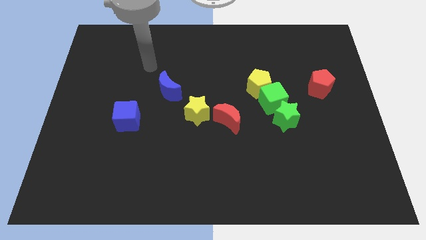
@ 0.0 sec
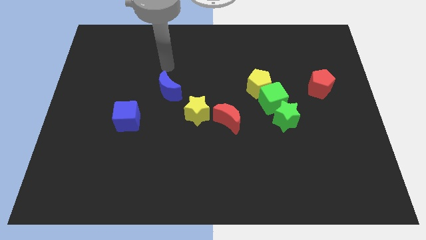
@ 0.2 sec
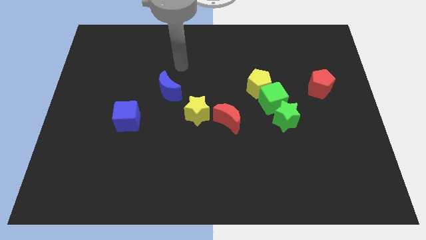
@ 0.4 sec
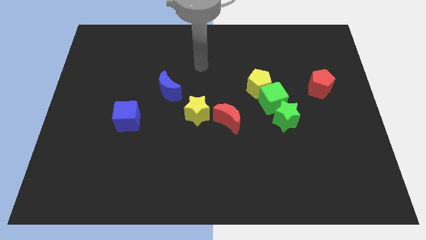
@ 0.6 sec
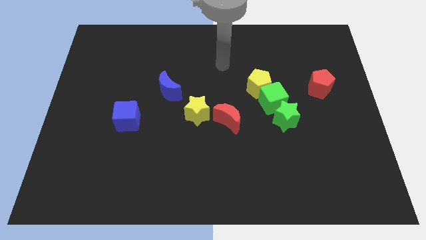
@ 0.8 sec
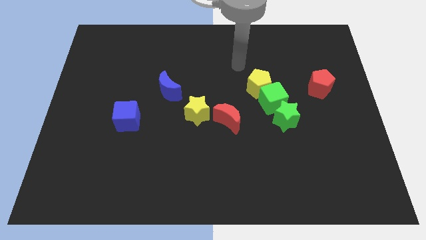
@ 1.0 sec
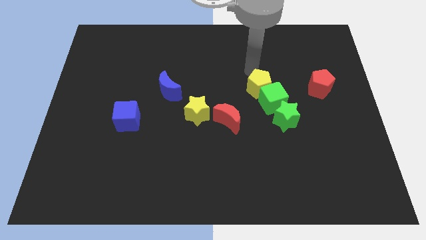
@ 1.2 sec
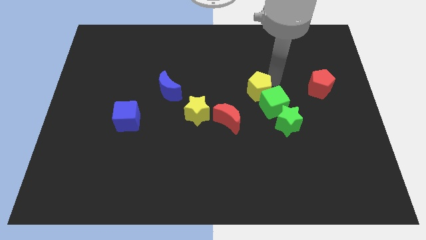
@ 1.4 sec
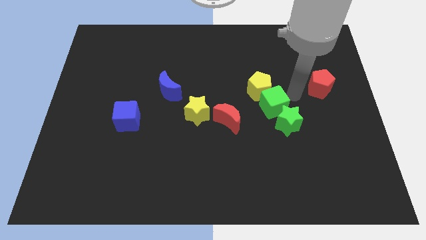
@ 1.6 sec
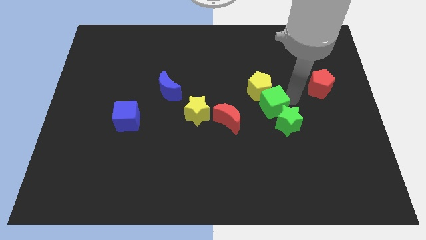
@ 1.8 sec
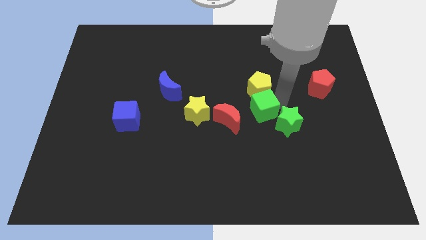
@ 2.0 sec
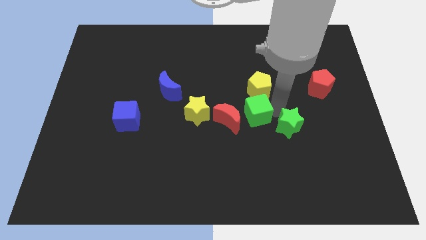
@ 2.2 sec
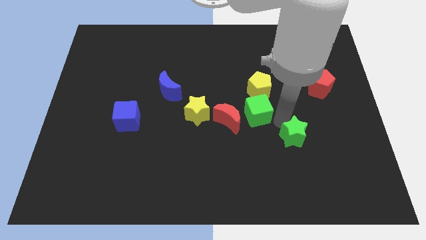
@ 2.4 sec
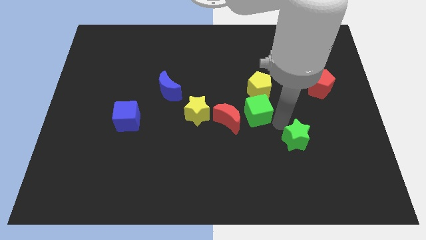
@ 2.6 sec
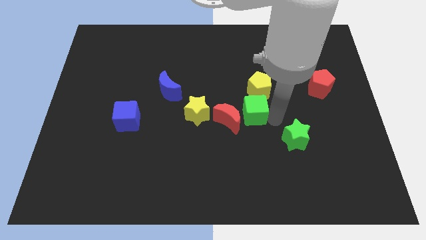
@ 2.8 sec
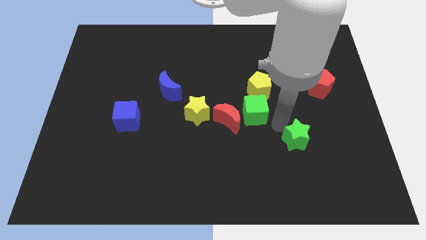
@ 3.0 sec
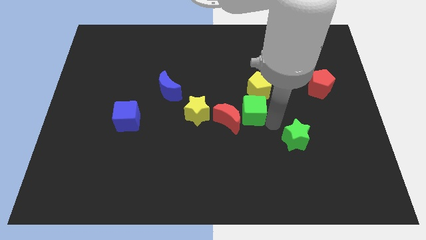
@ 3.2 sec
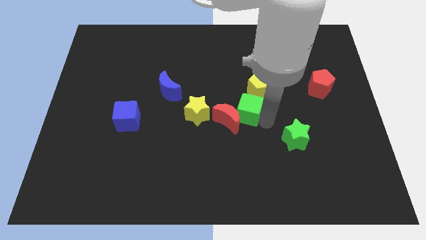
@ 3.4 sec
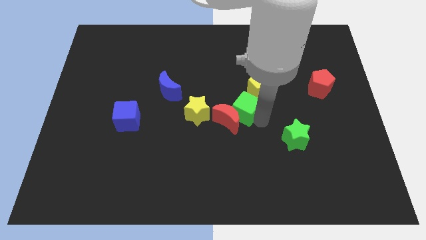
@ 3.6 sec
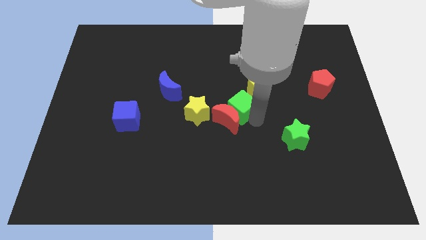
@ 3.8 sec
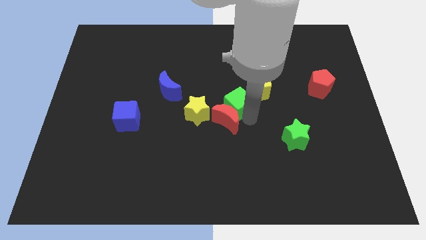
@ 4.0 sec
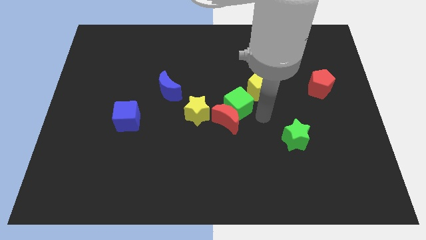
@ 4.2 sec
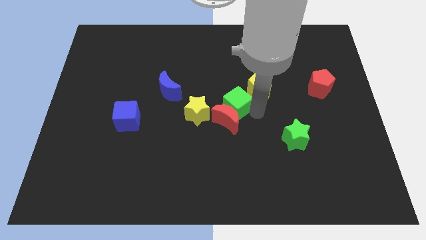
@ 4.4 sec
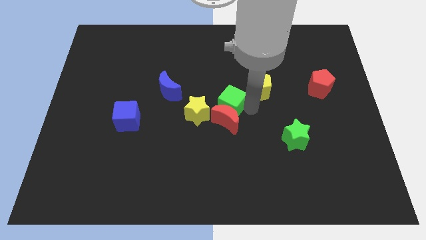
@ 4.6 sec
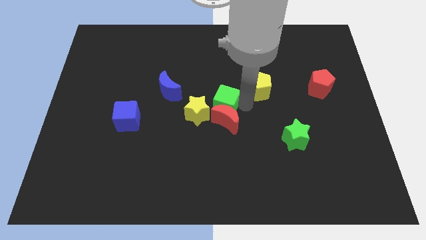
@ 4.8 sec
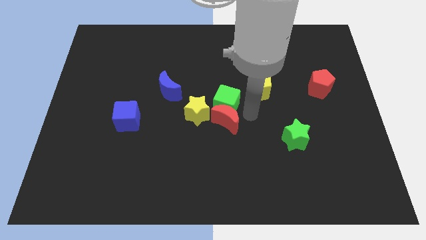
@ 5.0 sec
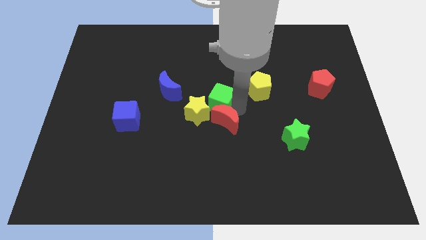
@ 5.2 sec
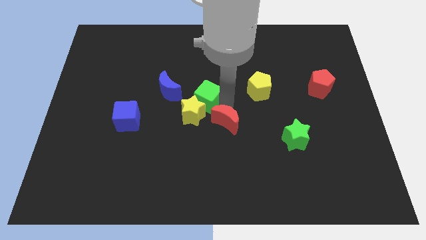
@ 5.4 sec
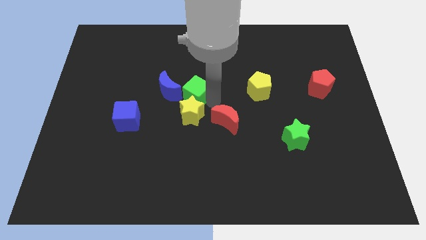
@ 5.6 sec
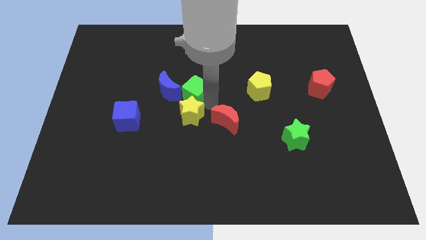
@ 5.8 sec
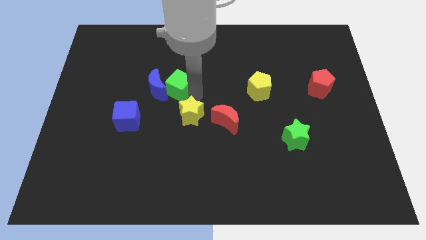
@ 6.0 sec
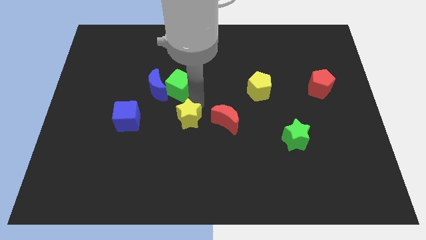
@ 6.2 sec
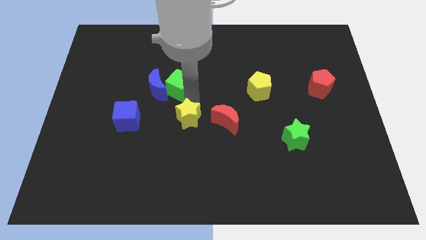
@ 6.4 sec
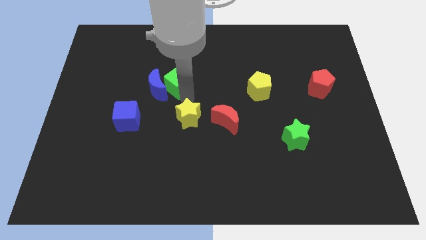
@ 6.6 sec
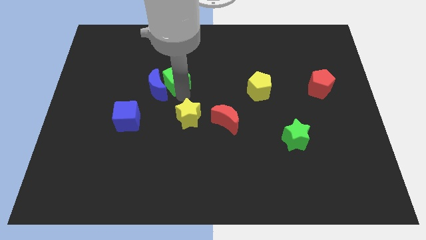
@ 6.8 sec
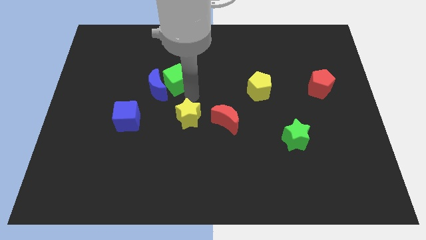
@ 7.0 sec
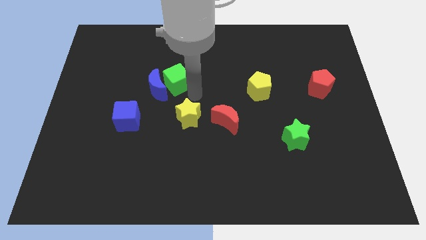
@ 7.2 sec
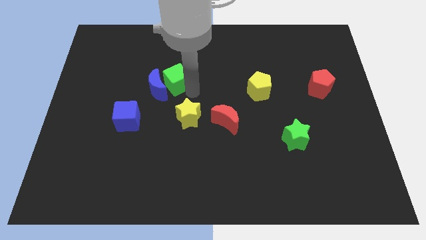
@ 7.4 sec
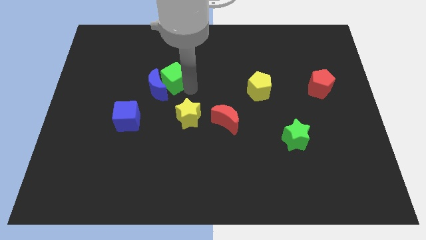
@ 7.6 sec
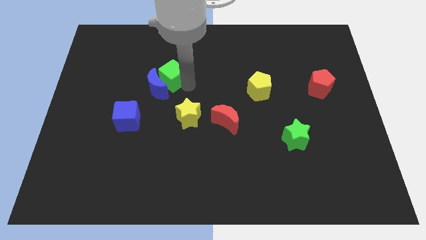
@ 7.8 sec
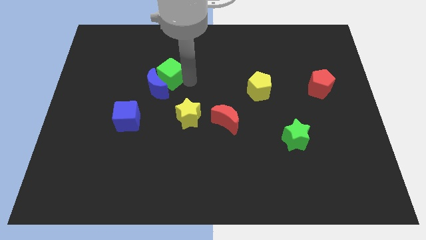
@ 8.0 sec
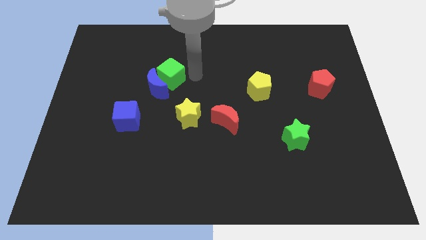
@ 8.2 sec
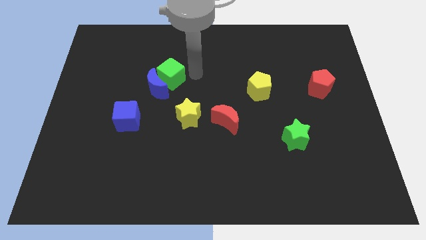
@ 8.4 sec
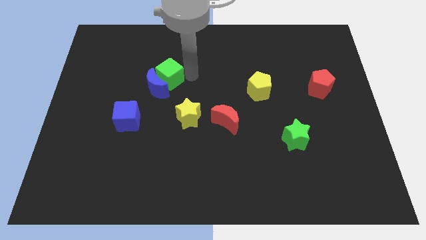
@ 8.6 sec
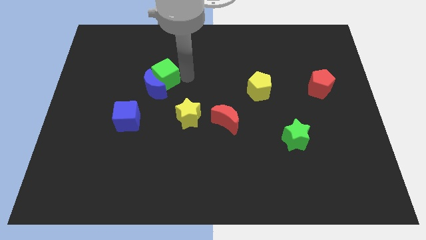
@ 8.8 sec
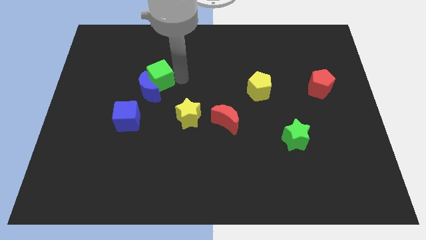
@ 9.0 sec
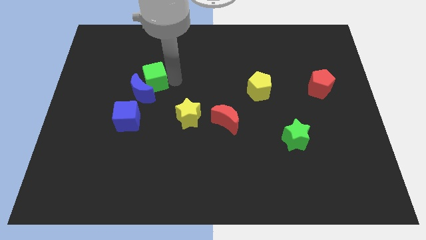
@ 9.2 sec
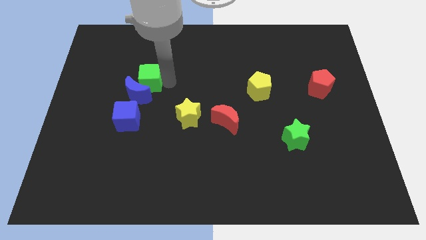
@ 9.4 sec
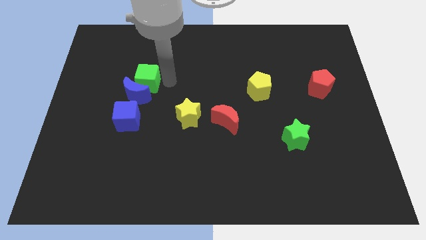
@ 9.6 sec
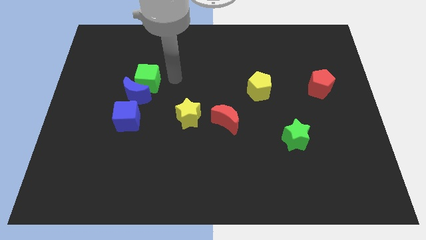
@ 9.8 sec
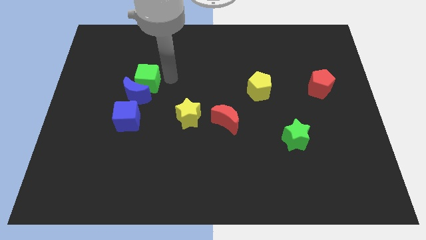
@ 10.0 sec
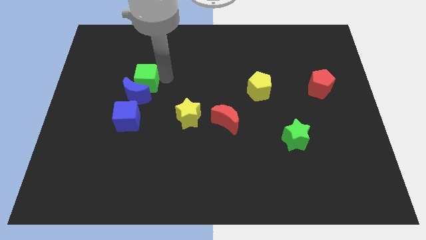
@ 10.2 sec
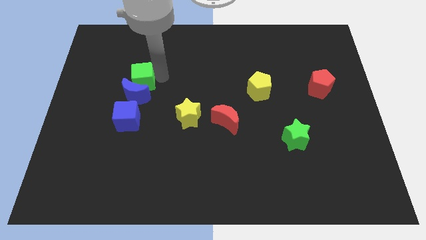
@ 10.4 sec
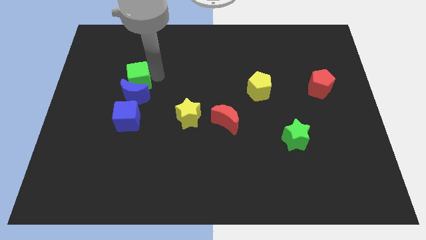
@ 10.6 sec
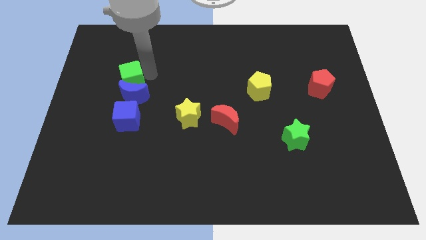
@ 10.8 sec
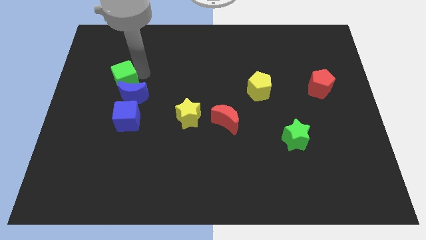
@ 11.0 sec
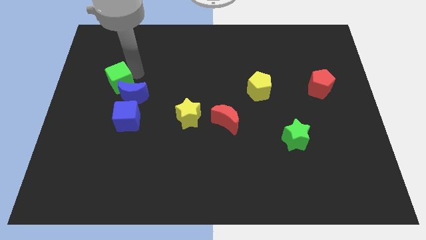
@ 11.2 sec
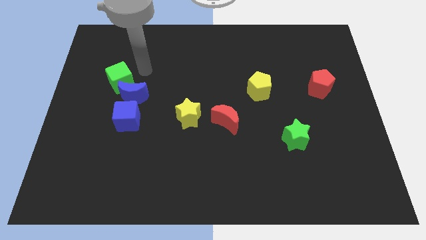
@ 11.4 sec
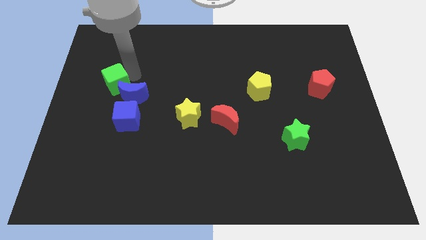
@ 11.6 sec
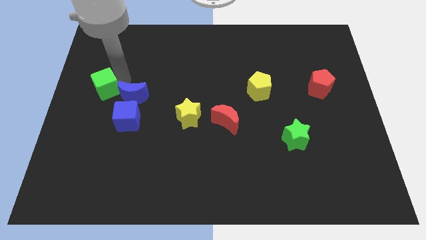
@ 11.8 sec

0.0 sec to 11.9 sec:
push the green cube to the left side

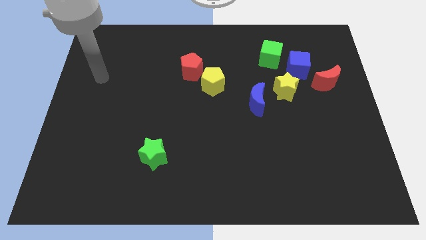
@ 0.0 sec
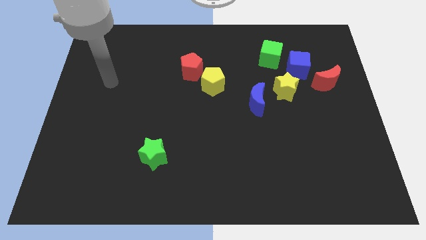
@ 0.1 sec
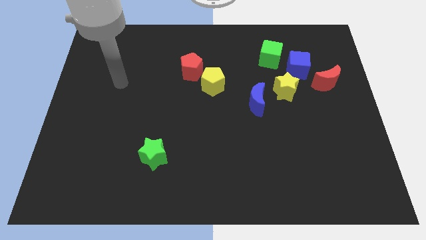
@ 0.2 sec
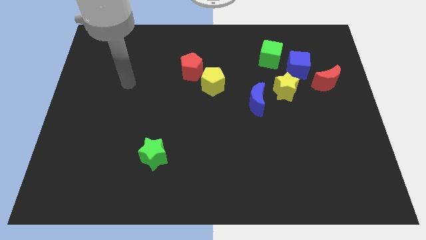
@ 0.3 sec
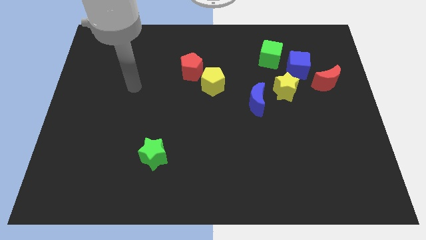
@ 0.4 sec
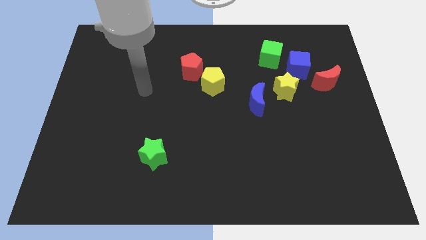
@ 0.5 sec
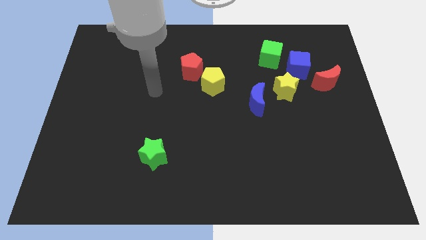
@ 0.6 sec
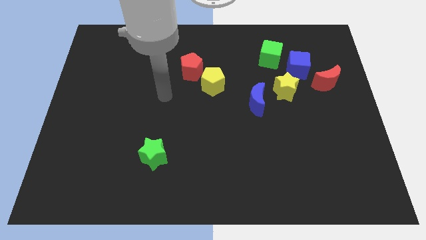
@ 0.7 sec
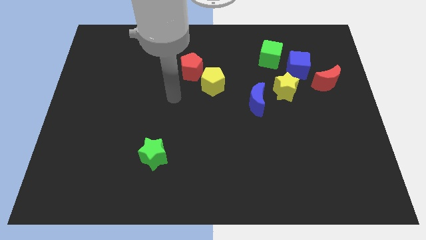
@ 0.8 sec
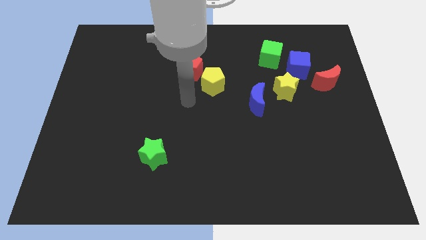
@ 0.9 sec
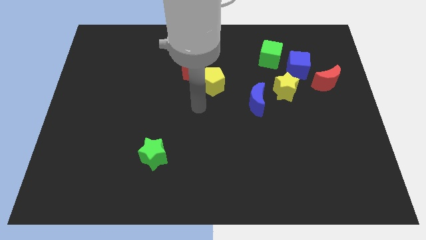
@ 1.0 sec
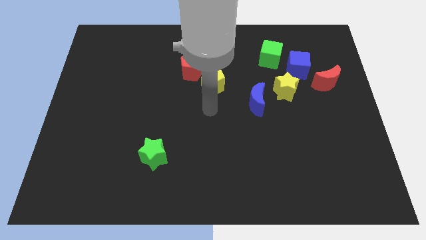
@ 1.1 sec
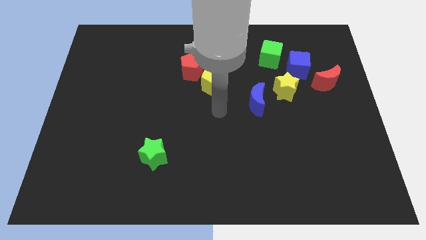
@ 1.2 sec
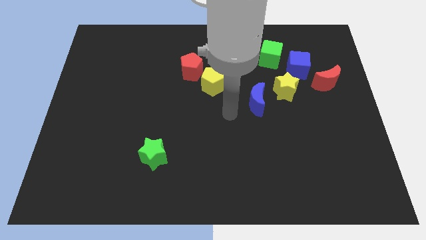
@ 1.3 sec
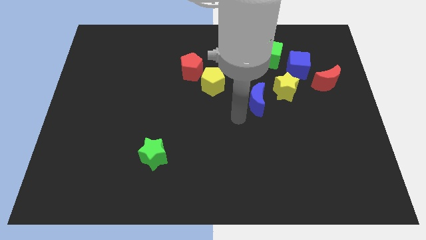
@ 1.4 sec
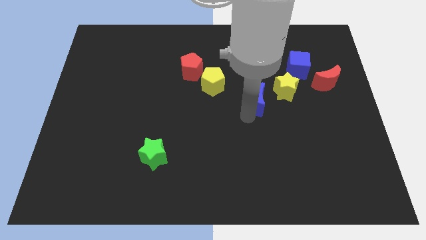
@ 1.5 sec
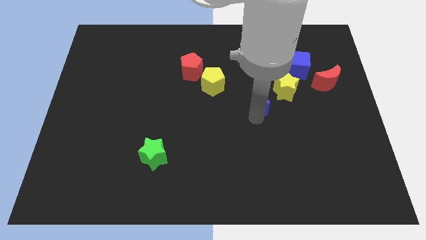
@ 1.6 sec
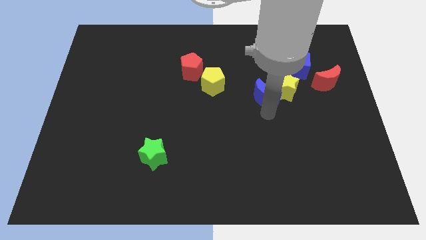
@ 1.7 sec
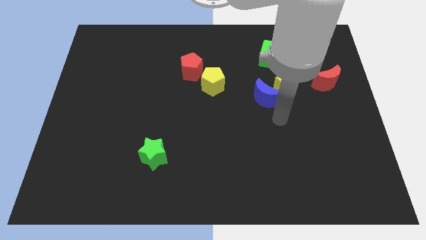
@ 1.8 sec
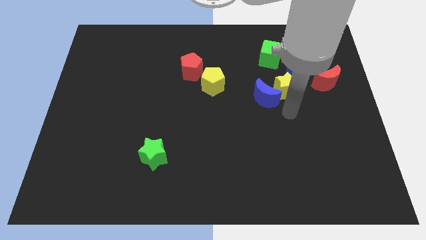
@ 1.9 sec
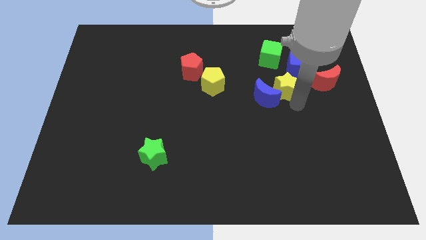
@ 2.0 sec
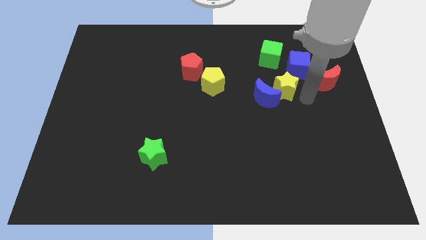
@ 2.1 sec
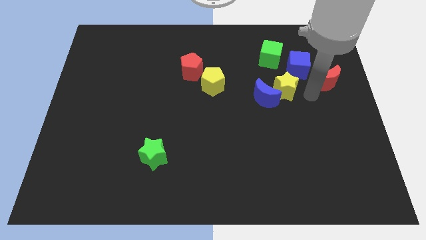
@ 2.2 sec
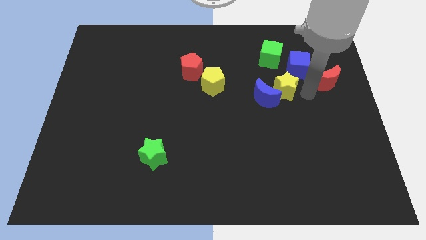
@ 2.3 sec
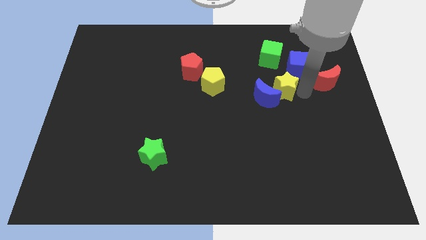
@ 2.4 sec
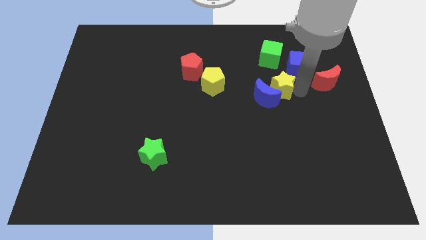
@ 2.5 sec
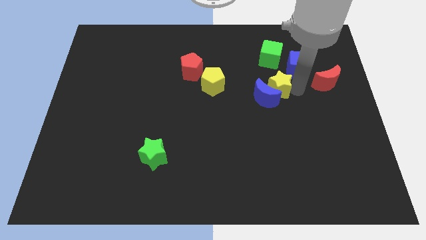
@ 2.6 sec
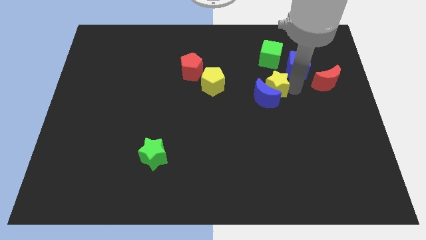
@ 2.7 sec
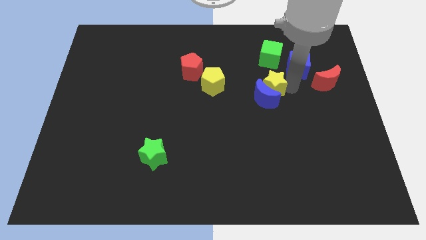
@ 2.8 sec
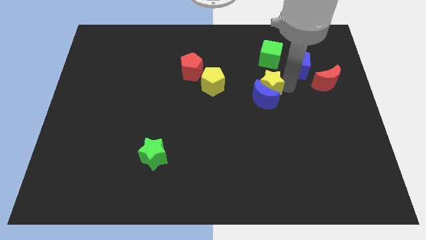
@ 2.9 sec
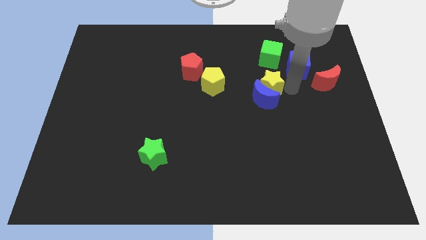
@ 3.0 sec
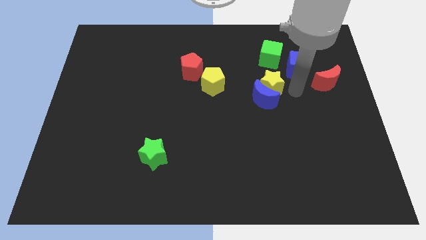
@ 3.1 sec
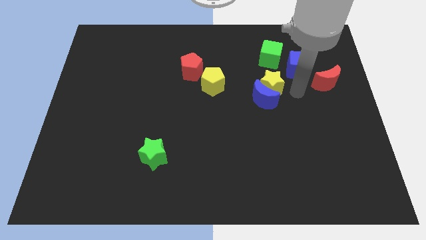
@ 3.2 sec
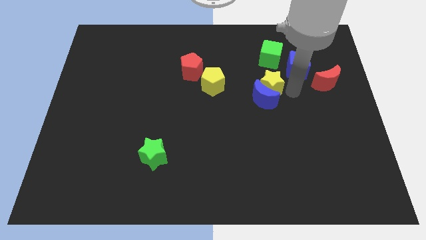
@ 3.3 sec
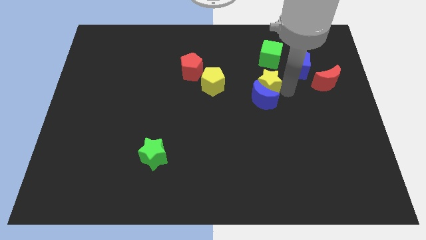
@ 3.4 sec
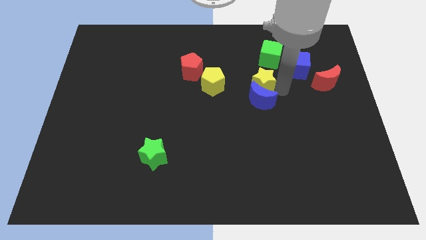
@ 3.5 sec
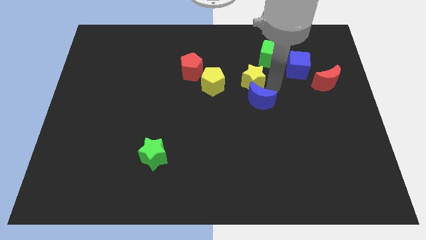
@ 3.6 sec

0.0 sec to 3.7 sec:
push the yellow star to the middle
